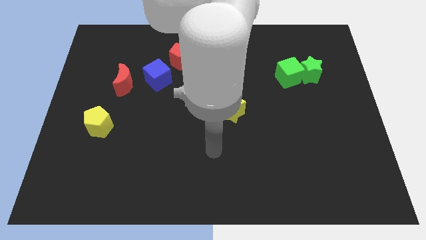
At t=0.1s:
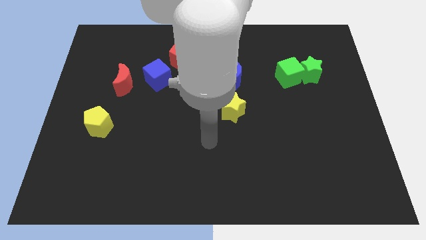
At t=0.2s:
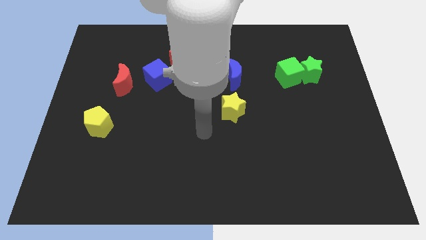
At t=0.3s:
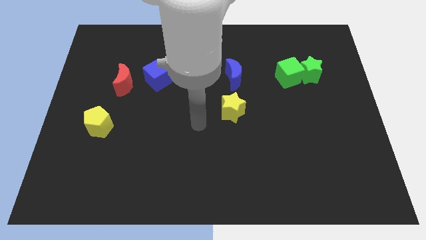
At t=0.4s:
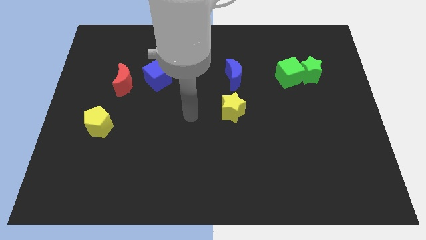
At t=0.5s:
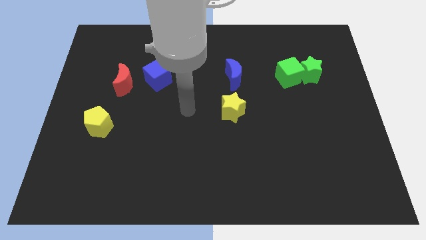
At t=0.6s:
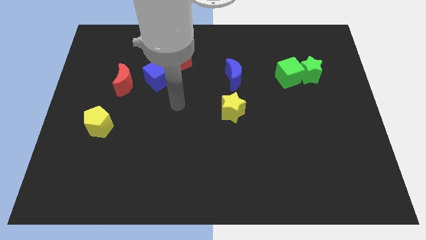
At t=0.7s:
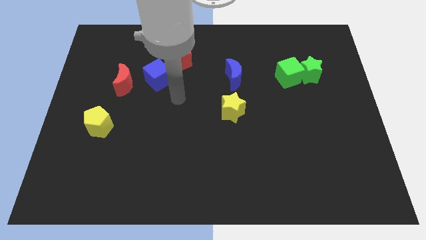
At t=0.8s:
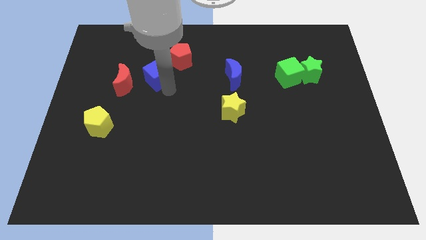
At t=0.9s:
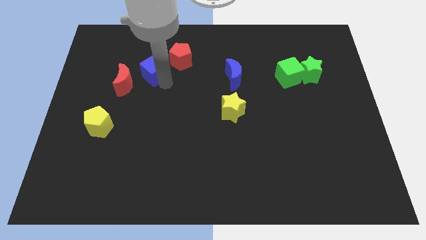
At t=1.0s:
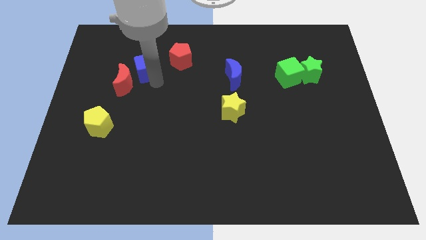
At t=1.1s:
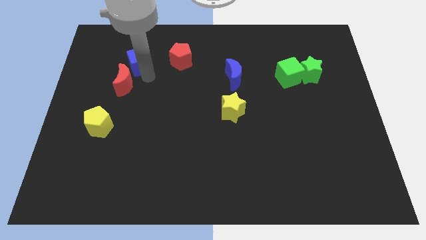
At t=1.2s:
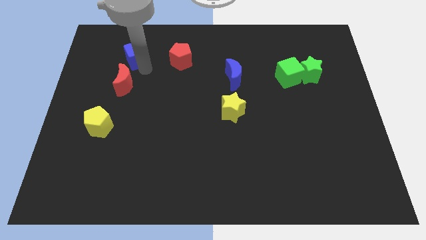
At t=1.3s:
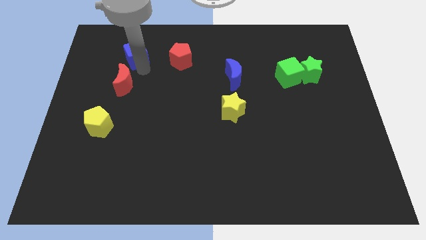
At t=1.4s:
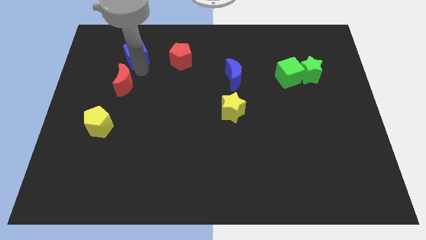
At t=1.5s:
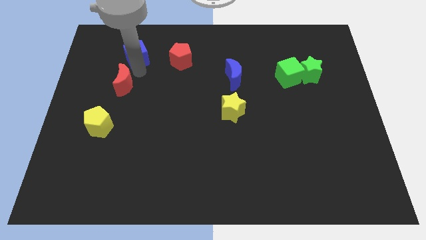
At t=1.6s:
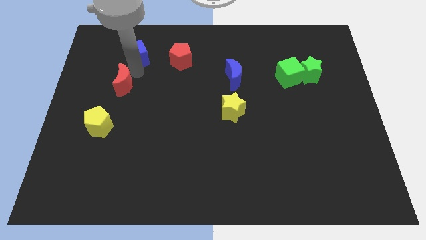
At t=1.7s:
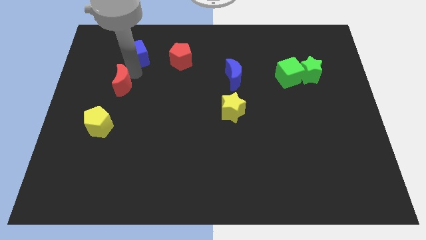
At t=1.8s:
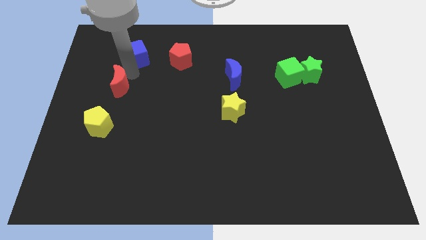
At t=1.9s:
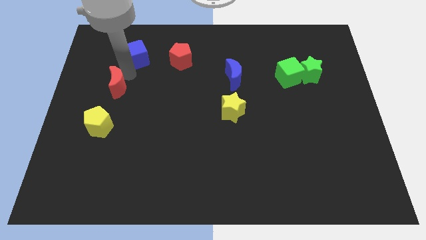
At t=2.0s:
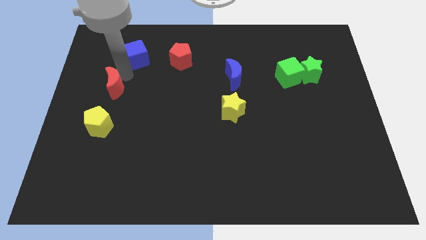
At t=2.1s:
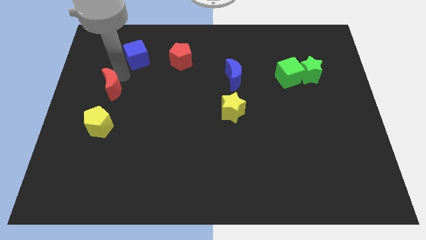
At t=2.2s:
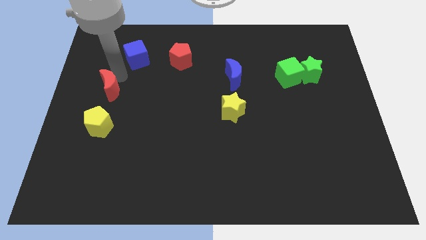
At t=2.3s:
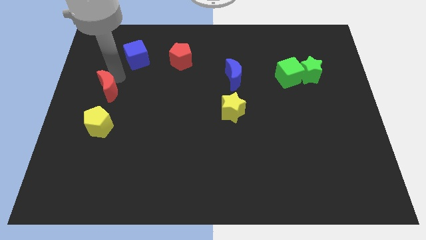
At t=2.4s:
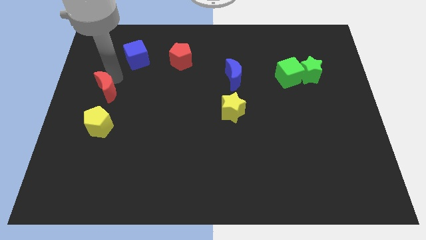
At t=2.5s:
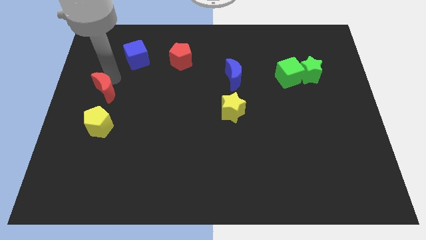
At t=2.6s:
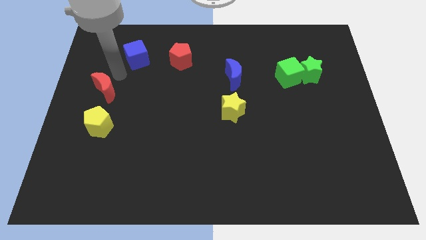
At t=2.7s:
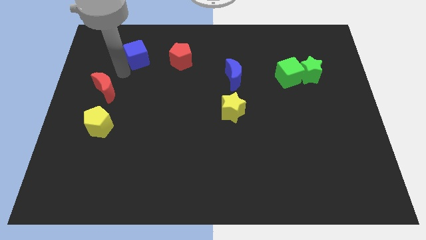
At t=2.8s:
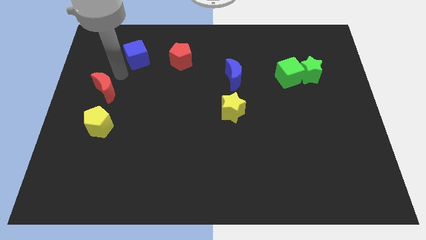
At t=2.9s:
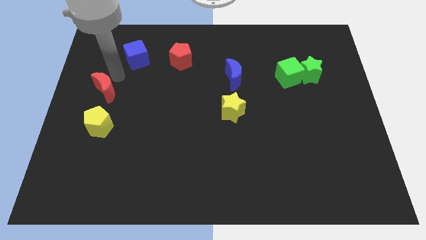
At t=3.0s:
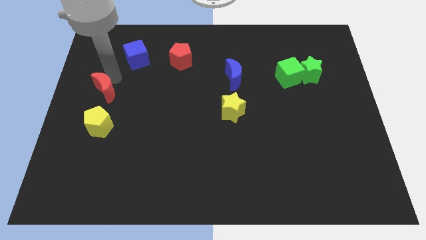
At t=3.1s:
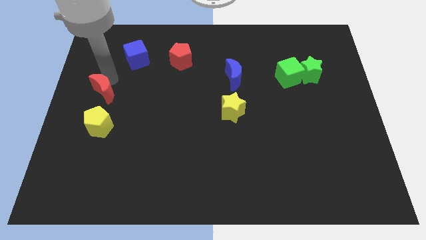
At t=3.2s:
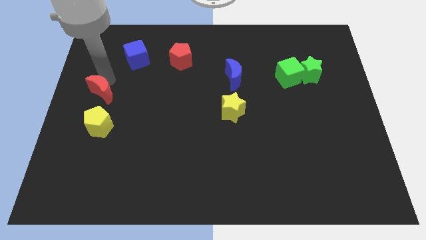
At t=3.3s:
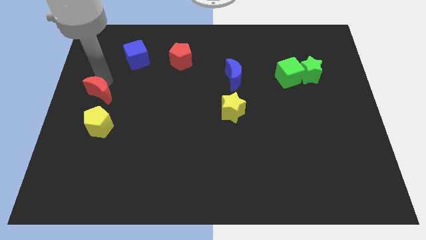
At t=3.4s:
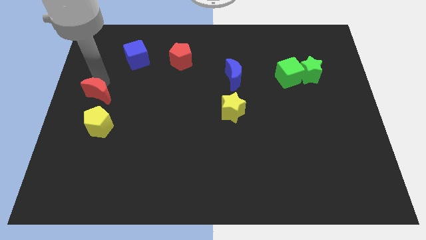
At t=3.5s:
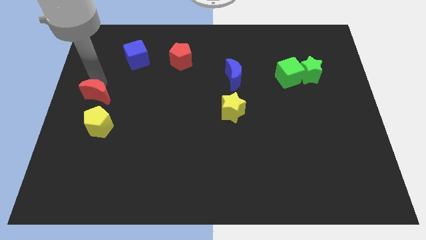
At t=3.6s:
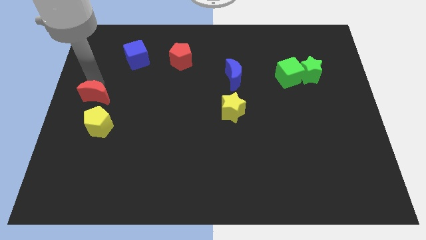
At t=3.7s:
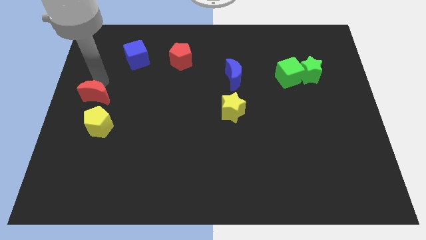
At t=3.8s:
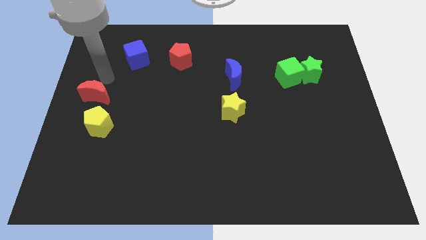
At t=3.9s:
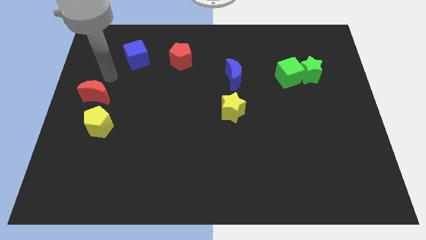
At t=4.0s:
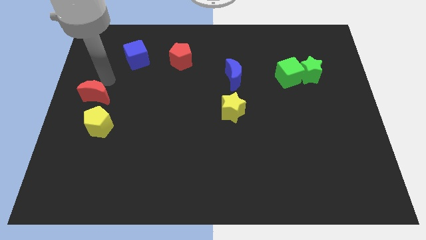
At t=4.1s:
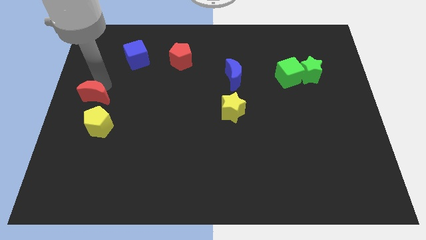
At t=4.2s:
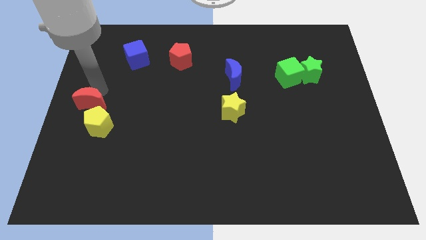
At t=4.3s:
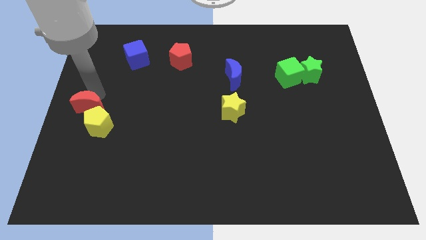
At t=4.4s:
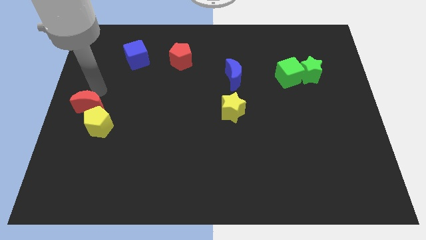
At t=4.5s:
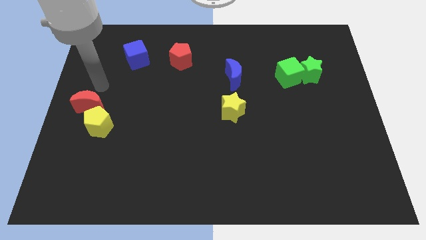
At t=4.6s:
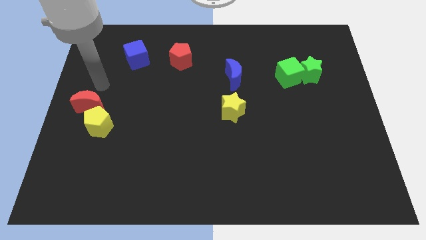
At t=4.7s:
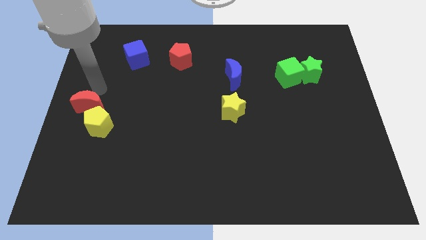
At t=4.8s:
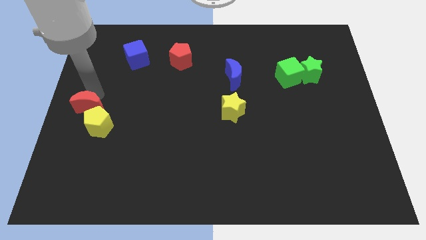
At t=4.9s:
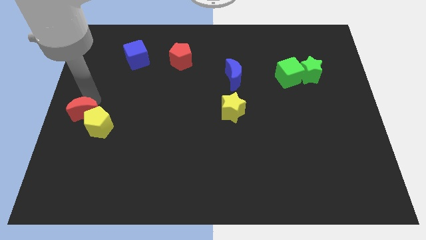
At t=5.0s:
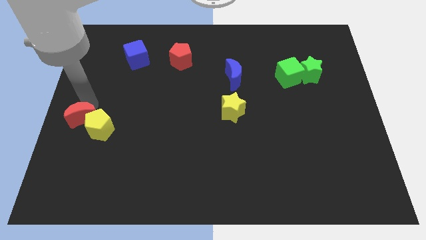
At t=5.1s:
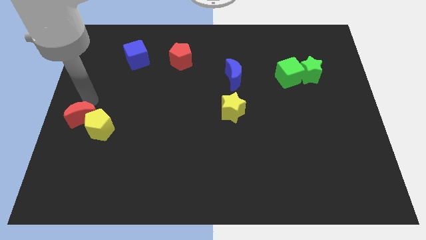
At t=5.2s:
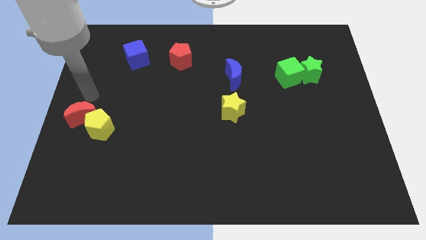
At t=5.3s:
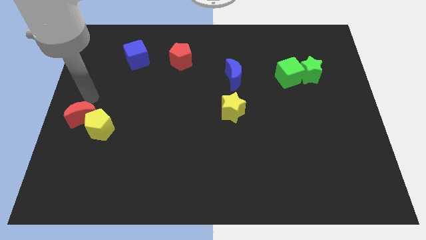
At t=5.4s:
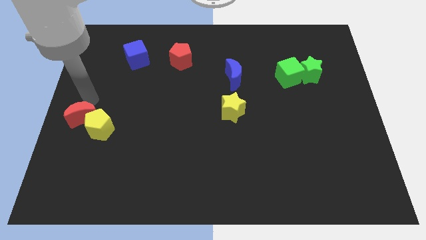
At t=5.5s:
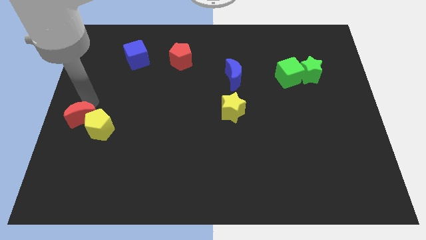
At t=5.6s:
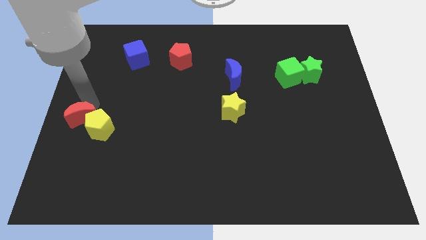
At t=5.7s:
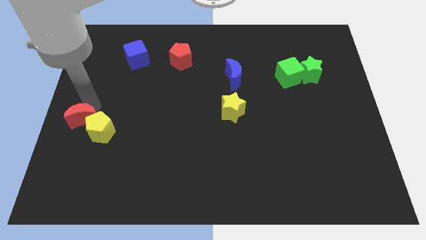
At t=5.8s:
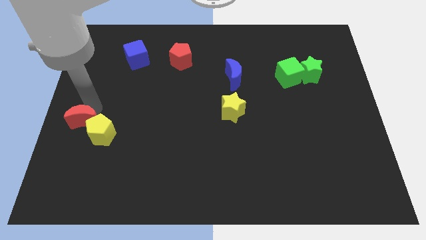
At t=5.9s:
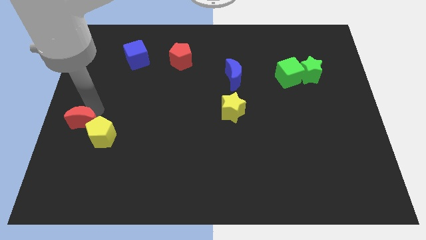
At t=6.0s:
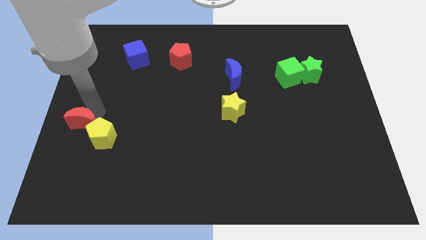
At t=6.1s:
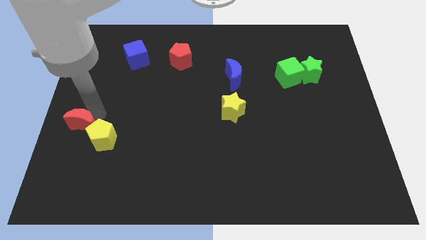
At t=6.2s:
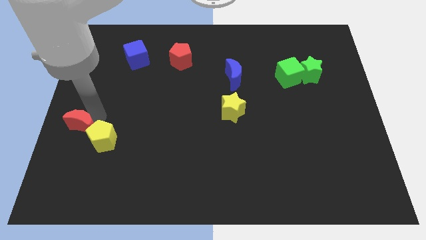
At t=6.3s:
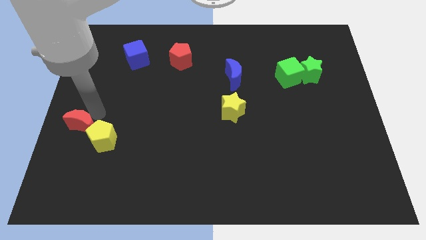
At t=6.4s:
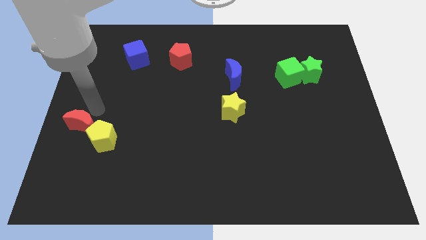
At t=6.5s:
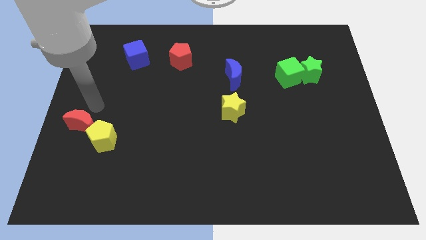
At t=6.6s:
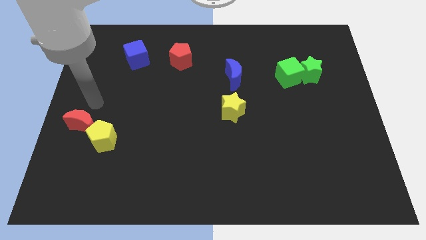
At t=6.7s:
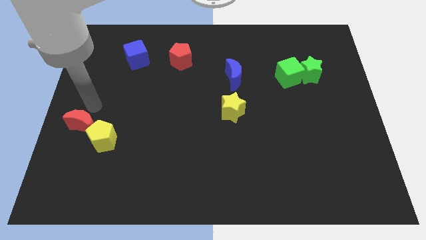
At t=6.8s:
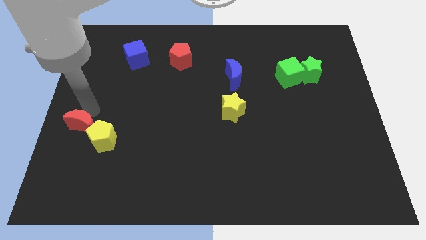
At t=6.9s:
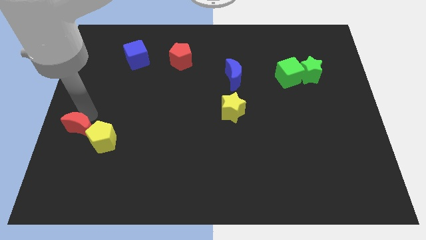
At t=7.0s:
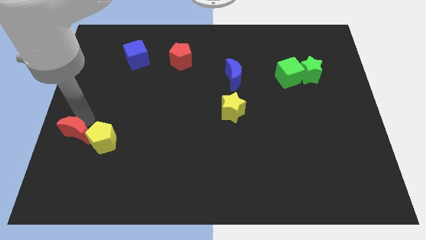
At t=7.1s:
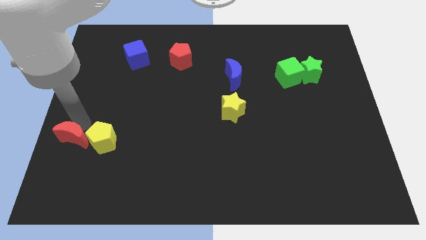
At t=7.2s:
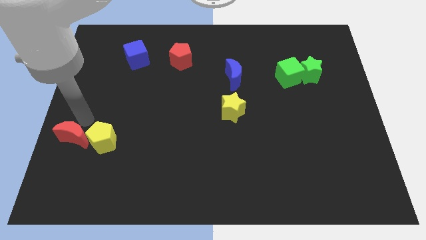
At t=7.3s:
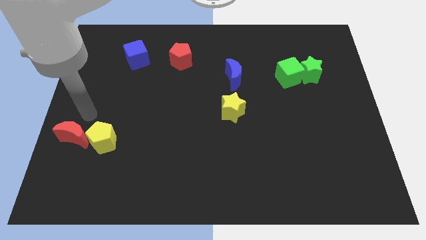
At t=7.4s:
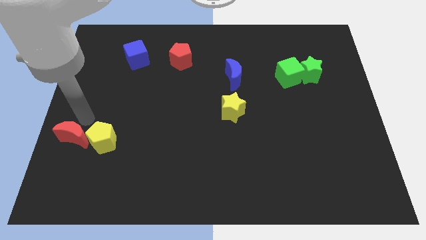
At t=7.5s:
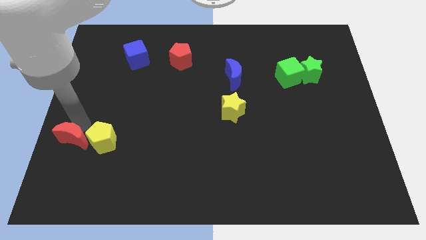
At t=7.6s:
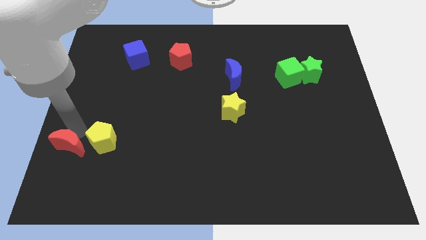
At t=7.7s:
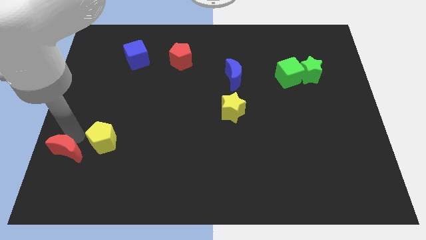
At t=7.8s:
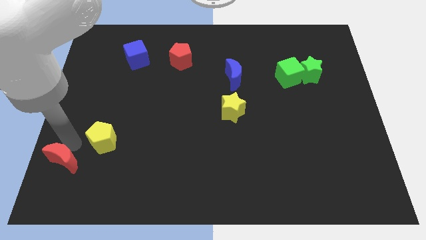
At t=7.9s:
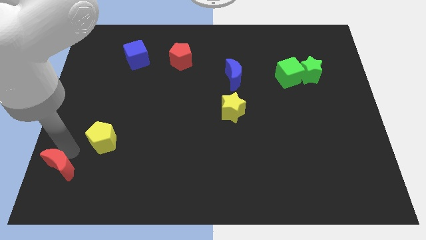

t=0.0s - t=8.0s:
push the red moon to the bottom left corner
